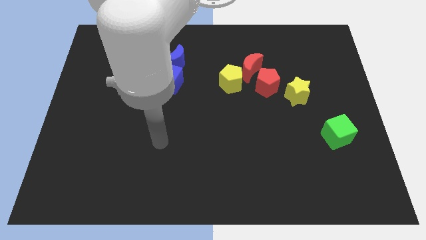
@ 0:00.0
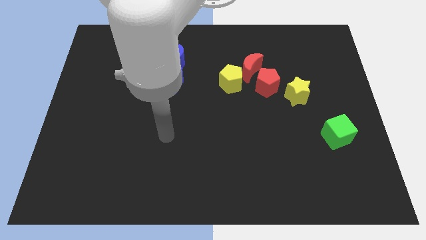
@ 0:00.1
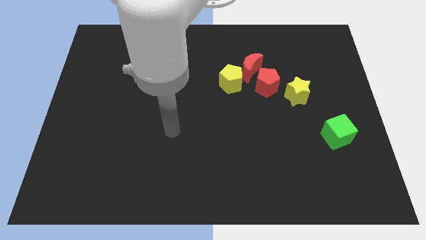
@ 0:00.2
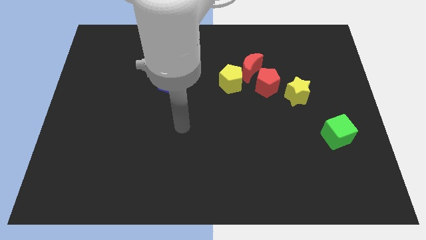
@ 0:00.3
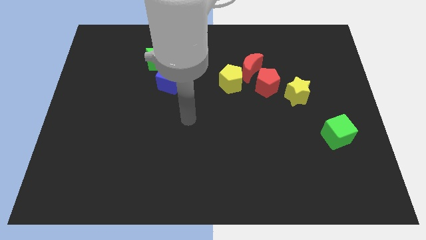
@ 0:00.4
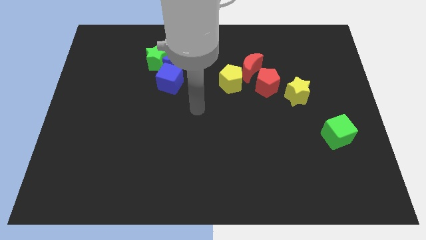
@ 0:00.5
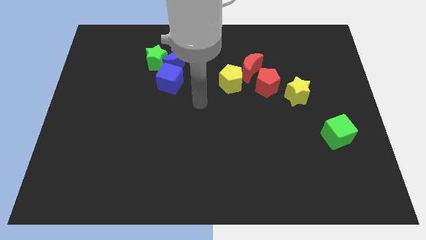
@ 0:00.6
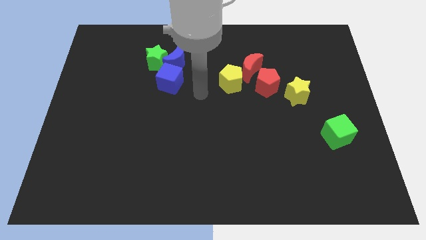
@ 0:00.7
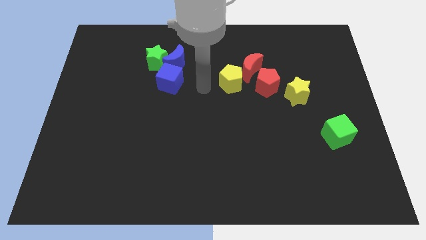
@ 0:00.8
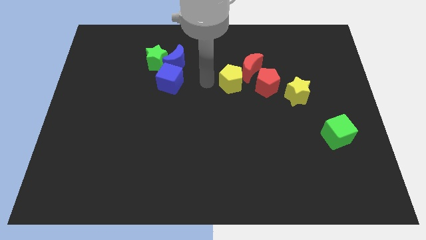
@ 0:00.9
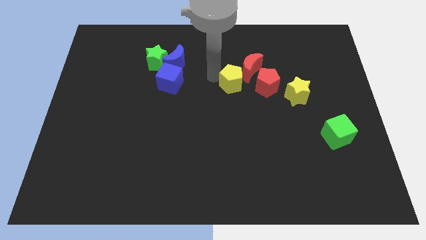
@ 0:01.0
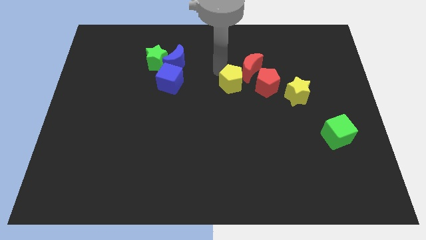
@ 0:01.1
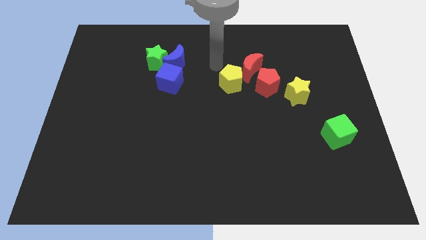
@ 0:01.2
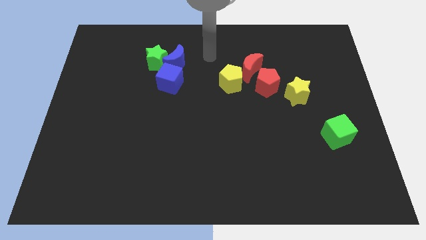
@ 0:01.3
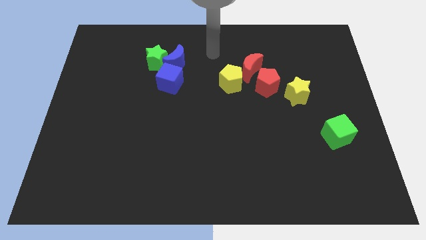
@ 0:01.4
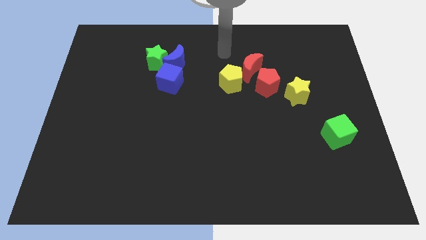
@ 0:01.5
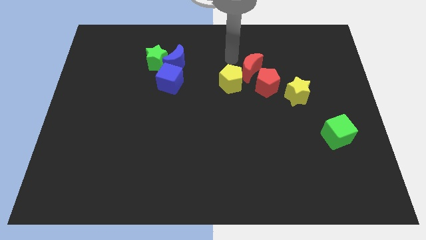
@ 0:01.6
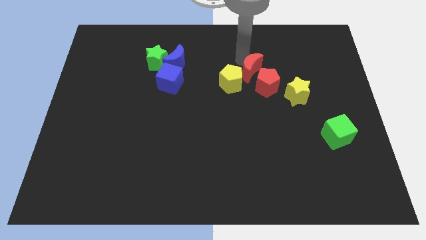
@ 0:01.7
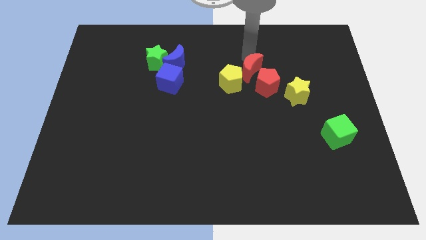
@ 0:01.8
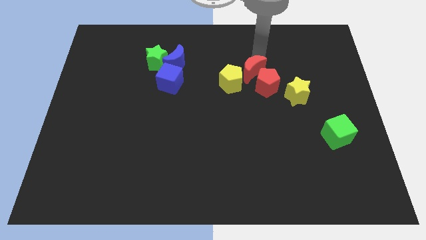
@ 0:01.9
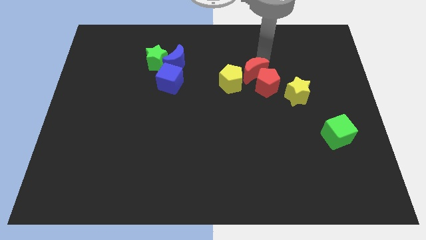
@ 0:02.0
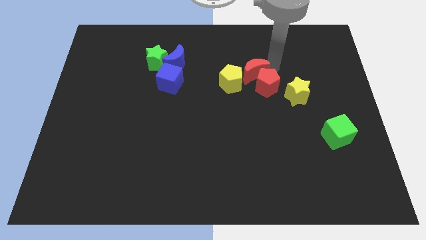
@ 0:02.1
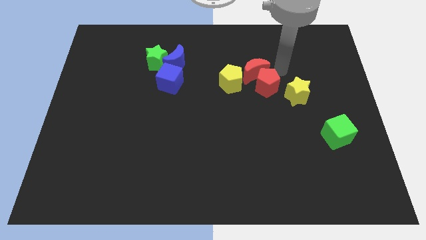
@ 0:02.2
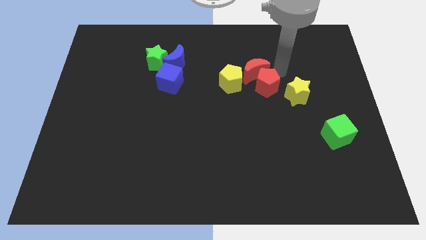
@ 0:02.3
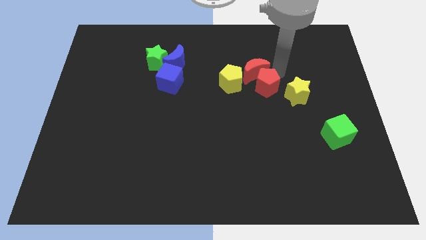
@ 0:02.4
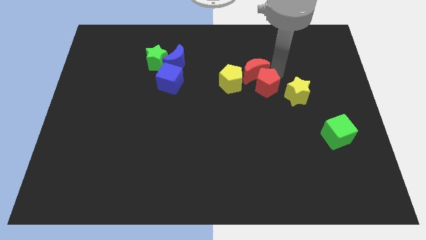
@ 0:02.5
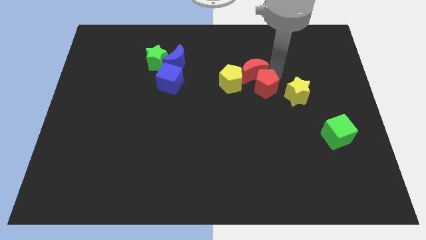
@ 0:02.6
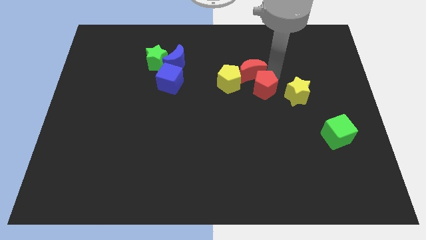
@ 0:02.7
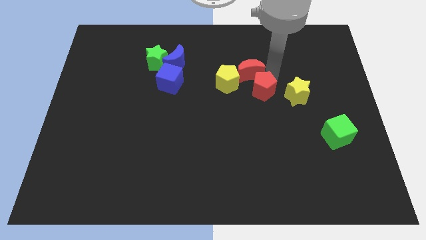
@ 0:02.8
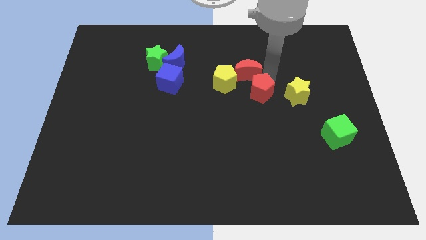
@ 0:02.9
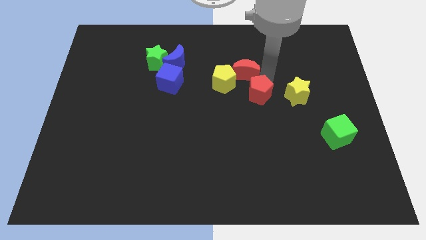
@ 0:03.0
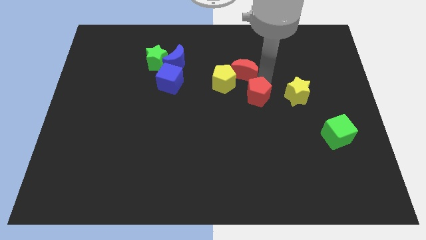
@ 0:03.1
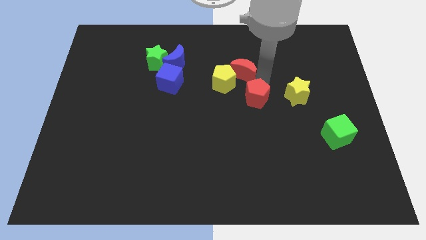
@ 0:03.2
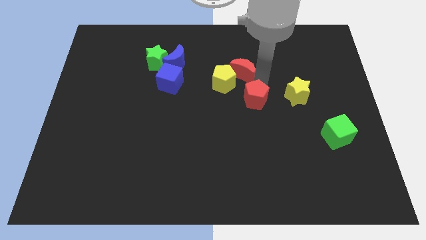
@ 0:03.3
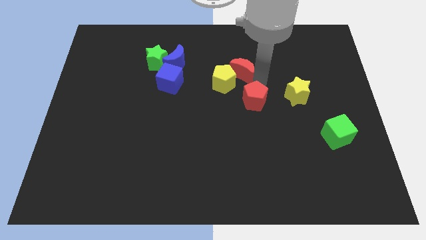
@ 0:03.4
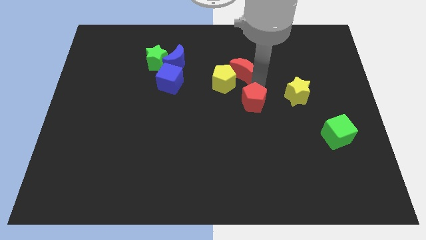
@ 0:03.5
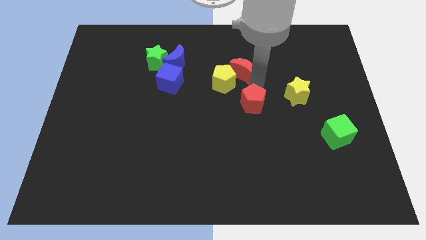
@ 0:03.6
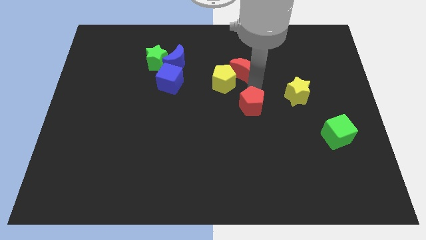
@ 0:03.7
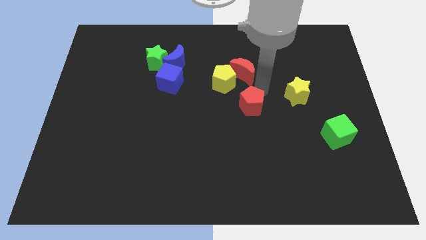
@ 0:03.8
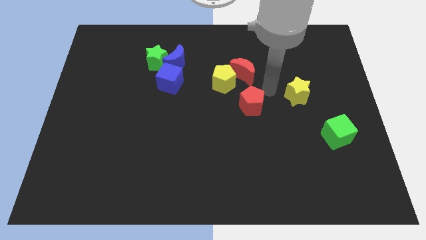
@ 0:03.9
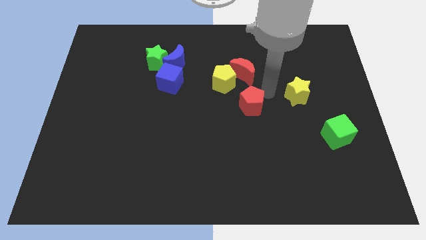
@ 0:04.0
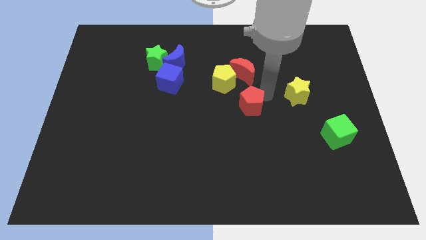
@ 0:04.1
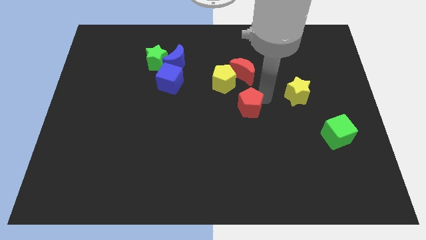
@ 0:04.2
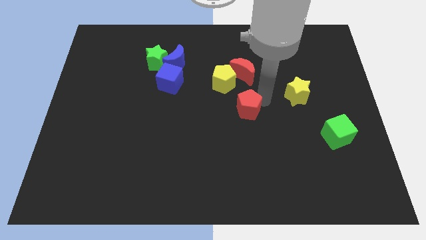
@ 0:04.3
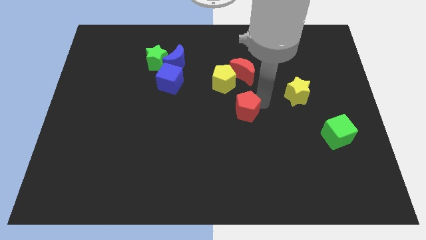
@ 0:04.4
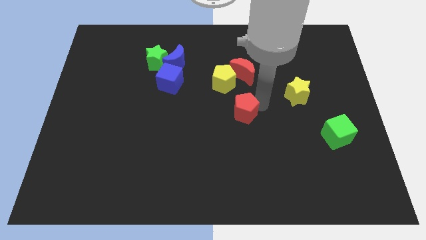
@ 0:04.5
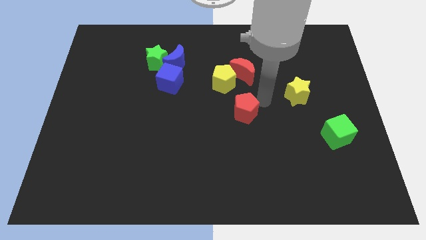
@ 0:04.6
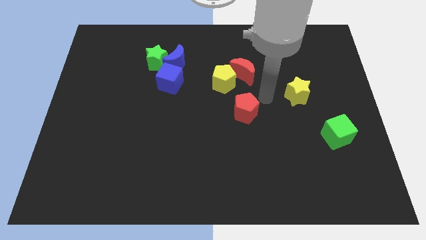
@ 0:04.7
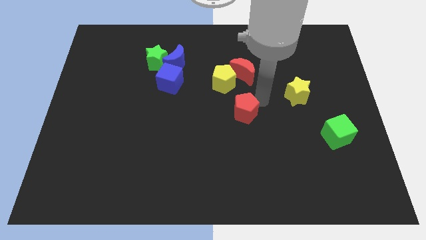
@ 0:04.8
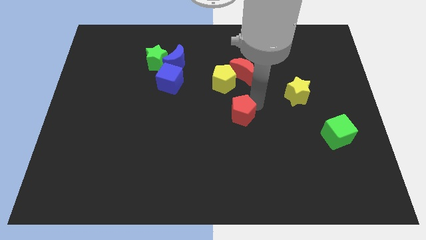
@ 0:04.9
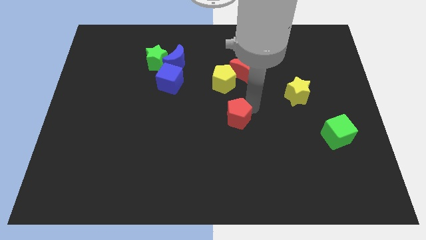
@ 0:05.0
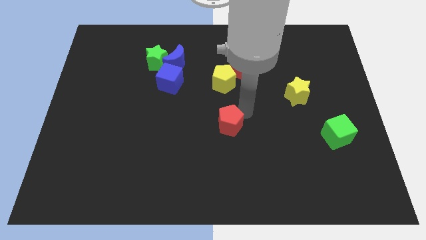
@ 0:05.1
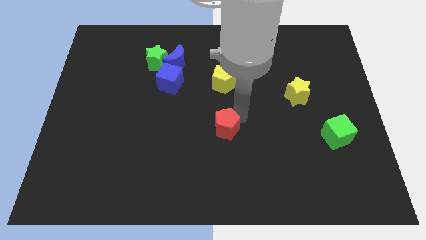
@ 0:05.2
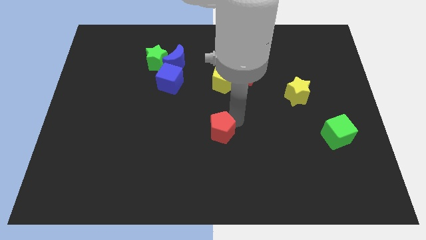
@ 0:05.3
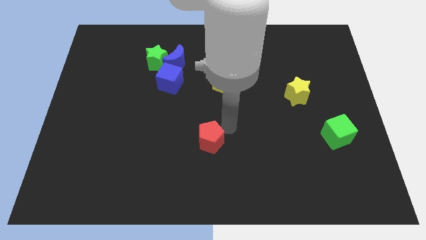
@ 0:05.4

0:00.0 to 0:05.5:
push the red pentagon downwards and to the left diagonally

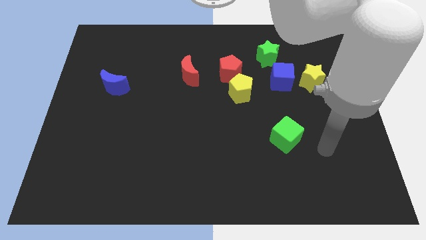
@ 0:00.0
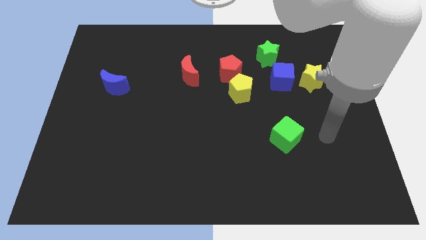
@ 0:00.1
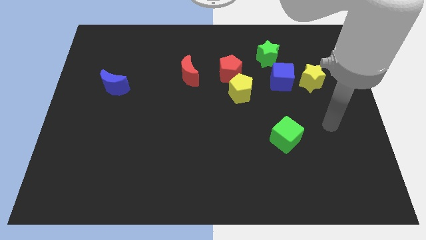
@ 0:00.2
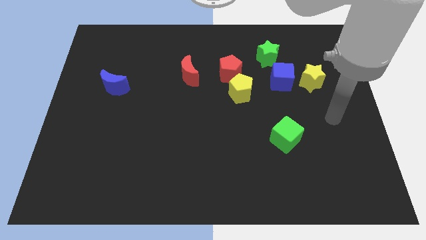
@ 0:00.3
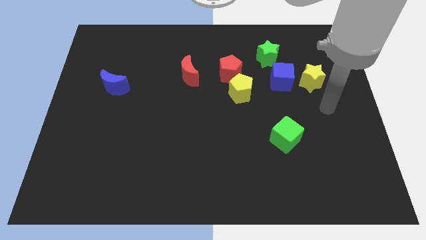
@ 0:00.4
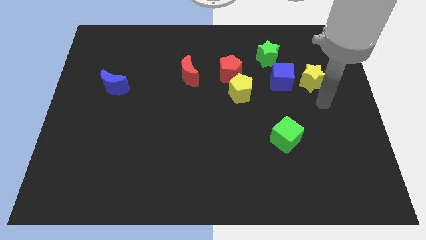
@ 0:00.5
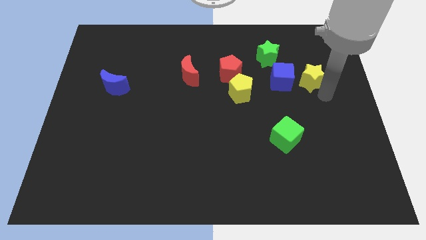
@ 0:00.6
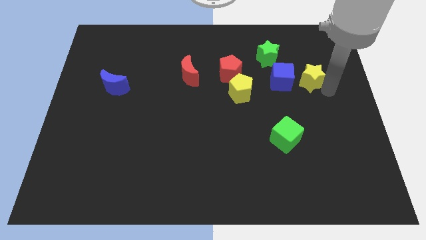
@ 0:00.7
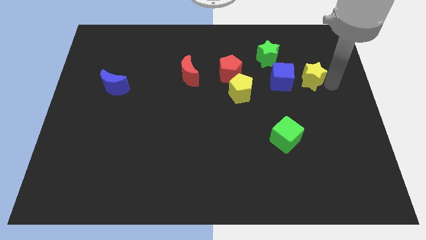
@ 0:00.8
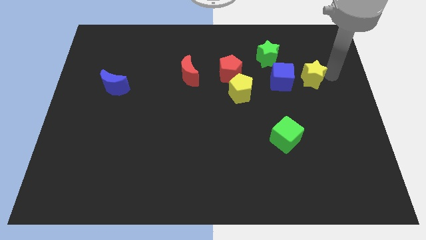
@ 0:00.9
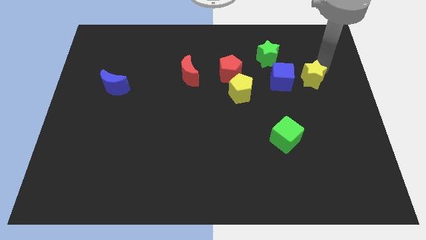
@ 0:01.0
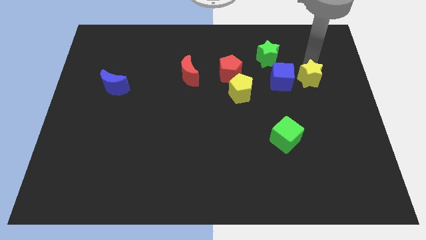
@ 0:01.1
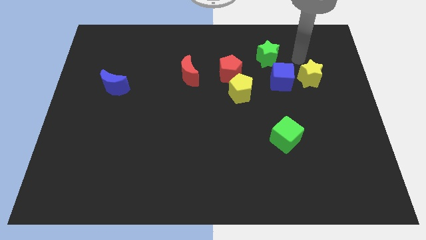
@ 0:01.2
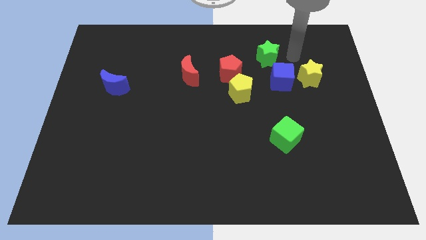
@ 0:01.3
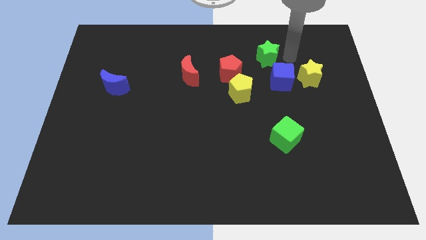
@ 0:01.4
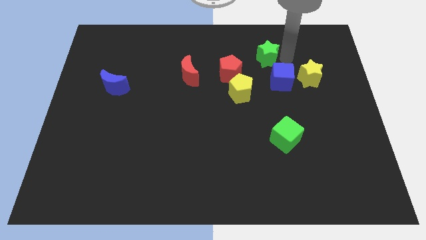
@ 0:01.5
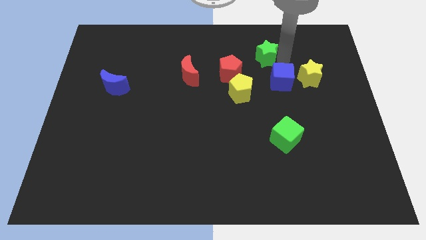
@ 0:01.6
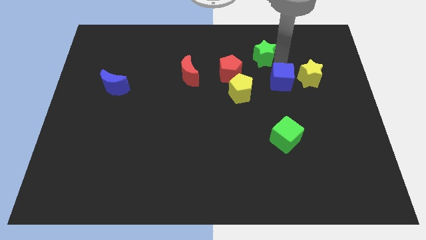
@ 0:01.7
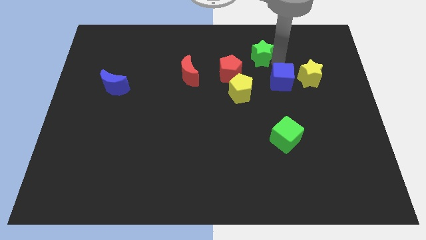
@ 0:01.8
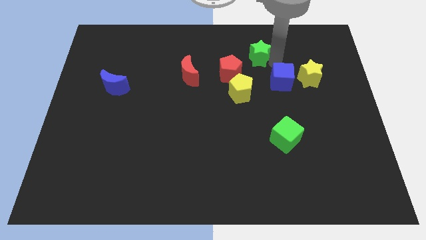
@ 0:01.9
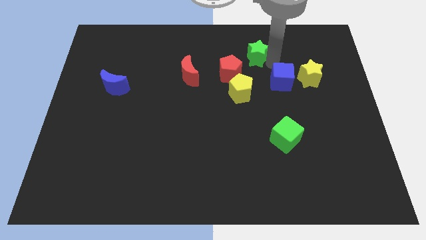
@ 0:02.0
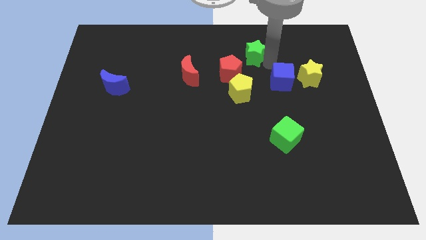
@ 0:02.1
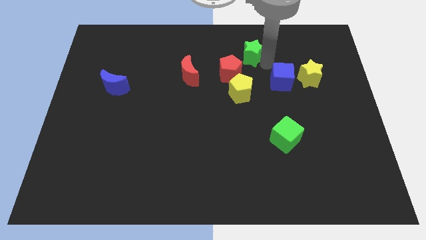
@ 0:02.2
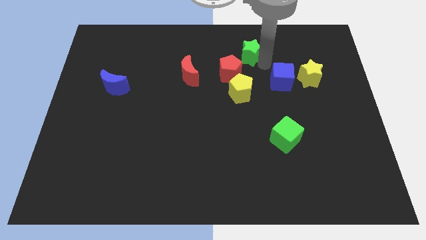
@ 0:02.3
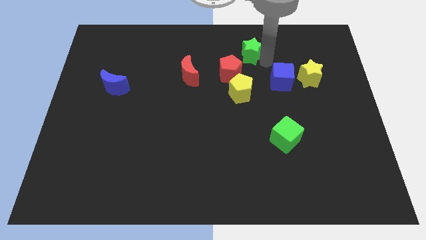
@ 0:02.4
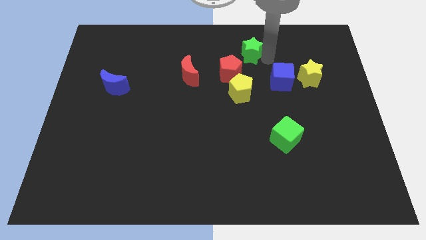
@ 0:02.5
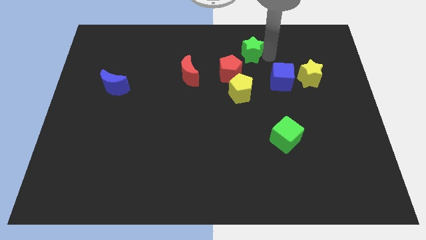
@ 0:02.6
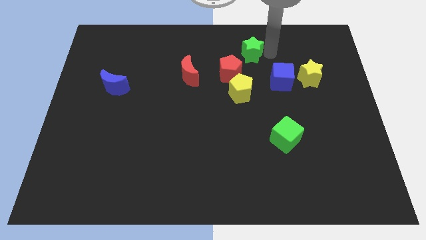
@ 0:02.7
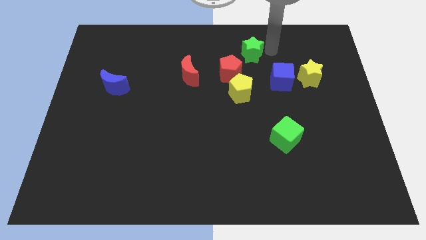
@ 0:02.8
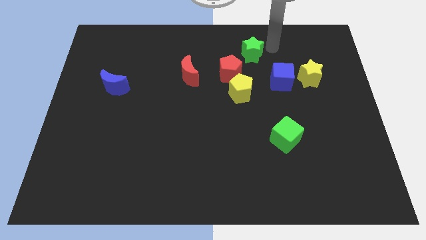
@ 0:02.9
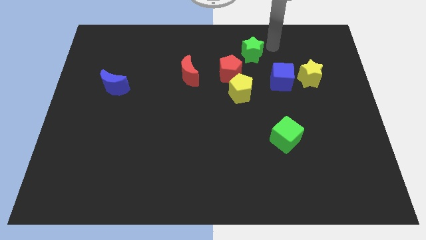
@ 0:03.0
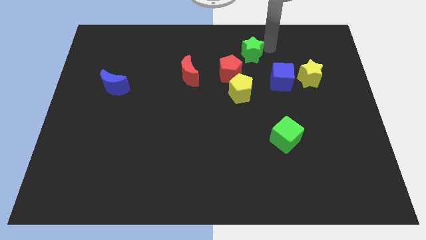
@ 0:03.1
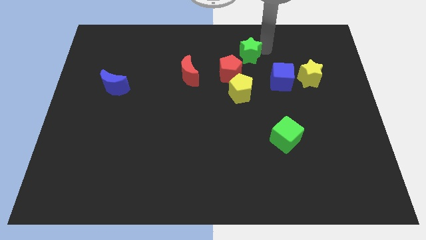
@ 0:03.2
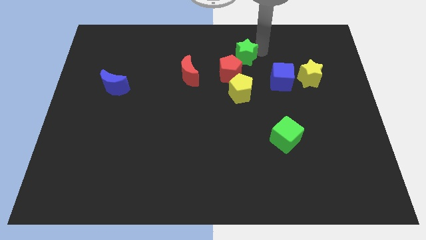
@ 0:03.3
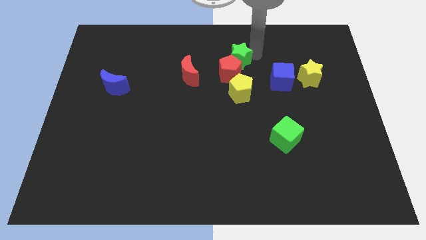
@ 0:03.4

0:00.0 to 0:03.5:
slide the green star a bit left
